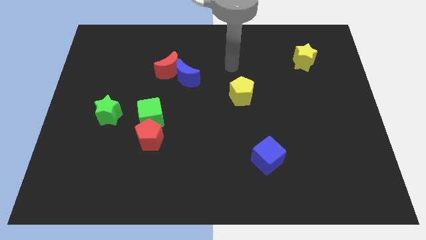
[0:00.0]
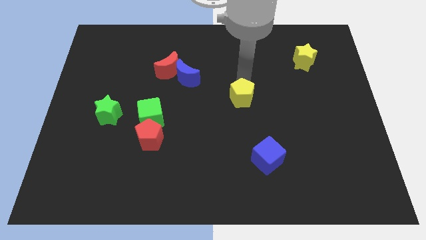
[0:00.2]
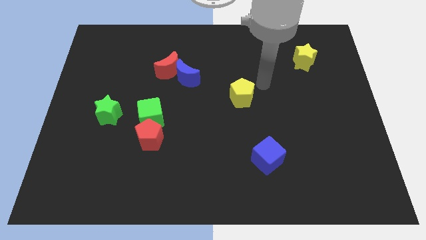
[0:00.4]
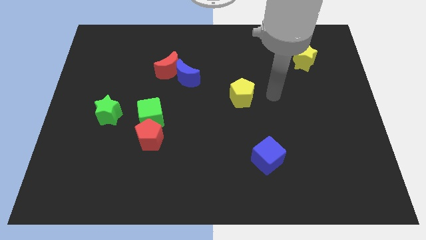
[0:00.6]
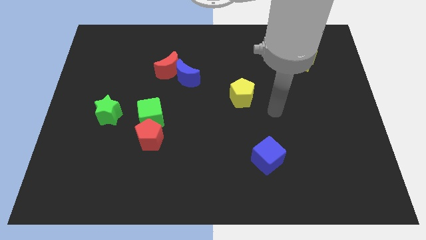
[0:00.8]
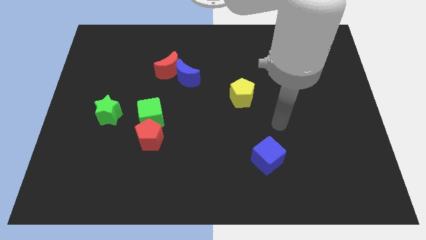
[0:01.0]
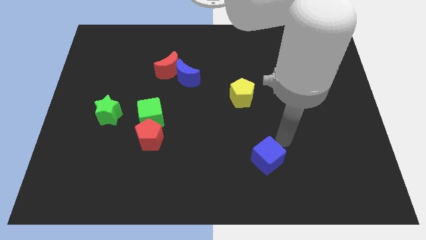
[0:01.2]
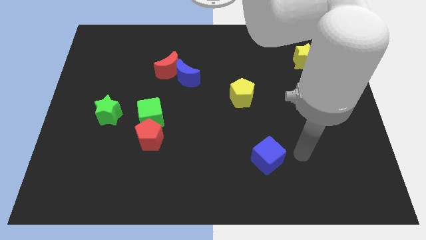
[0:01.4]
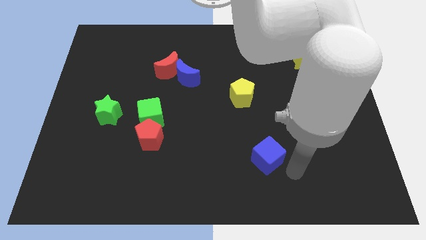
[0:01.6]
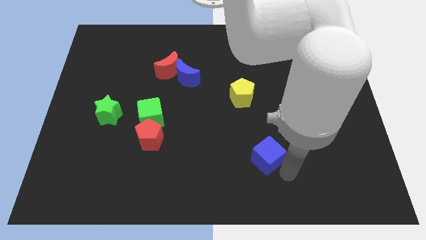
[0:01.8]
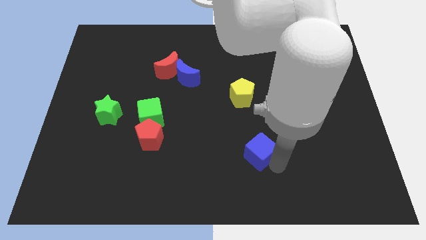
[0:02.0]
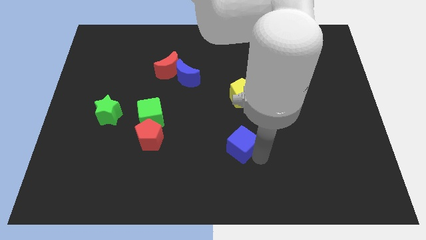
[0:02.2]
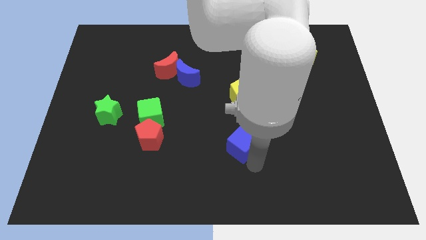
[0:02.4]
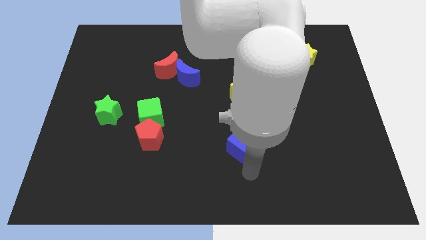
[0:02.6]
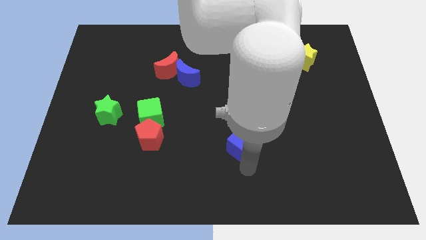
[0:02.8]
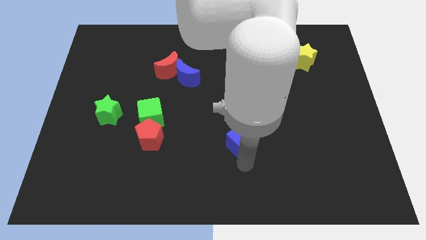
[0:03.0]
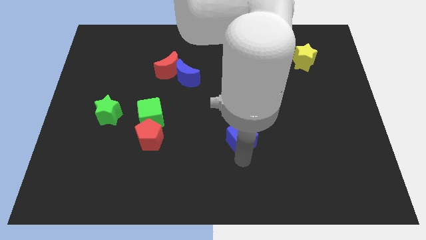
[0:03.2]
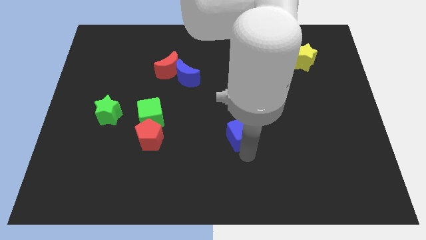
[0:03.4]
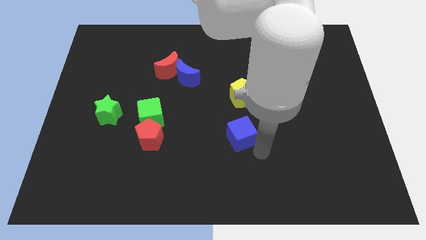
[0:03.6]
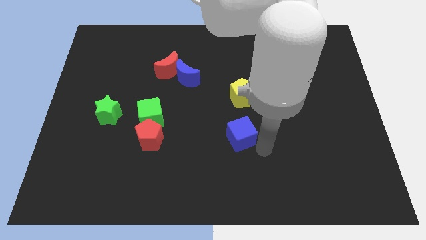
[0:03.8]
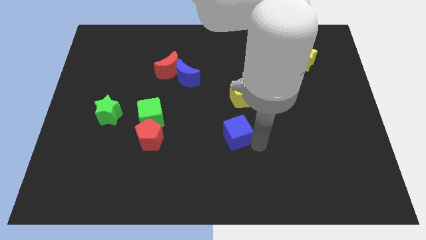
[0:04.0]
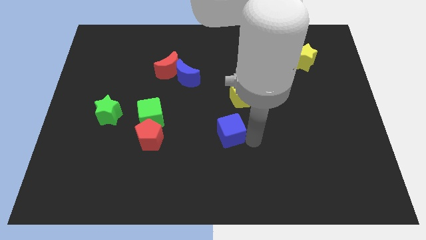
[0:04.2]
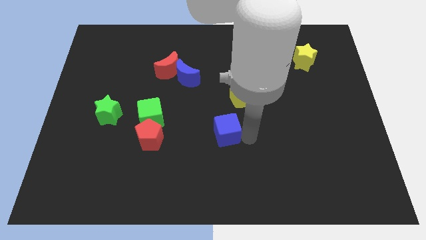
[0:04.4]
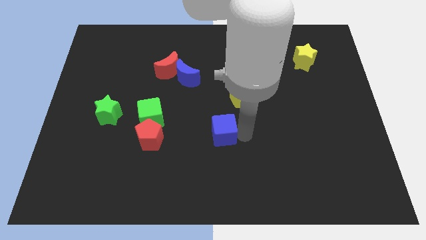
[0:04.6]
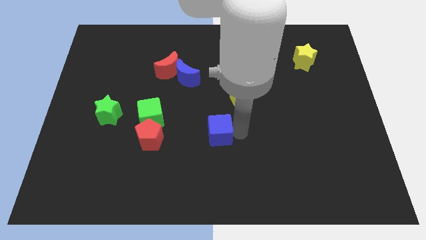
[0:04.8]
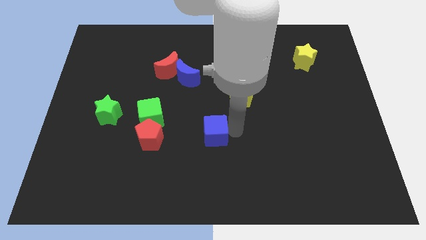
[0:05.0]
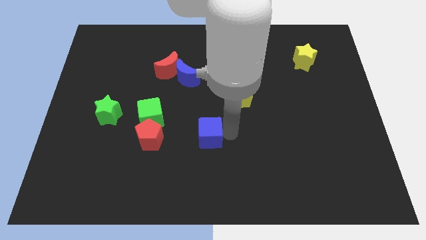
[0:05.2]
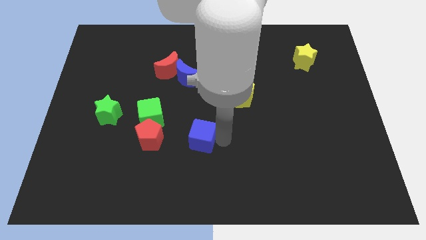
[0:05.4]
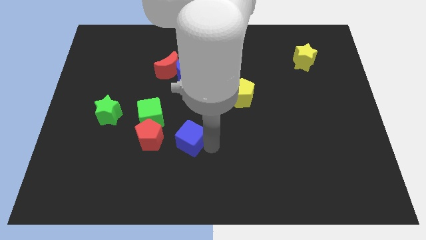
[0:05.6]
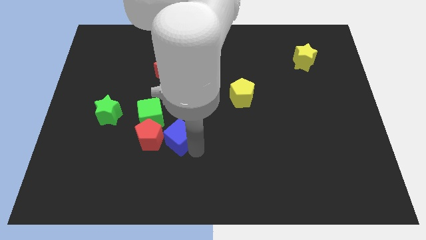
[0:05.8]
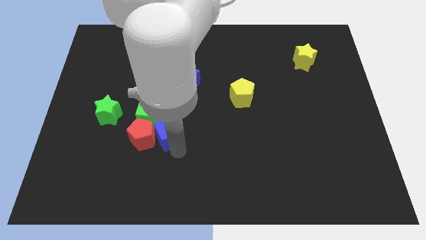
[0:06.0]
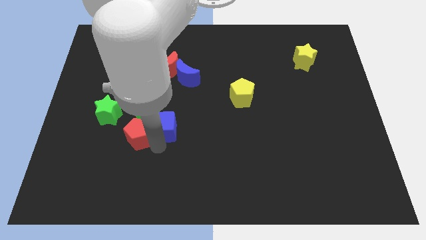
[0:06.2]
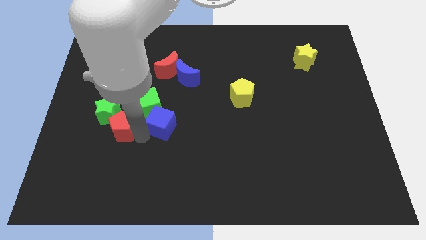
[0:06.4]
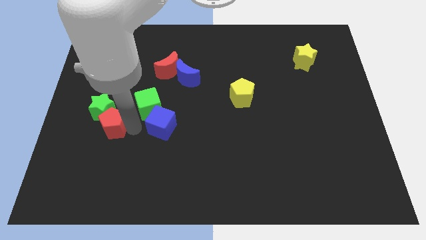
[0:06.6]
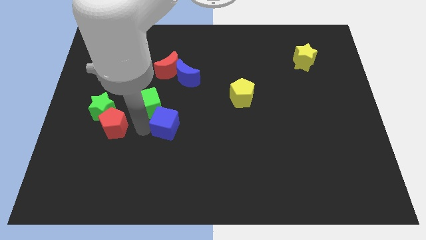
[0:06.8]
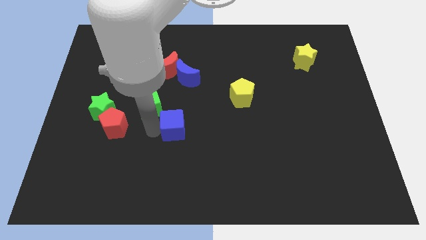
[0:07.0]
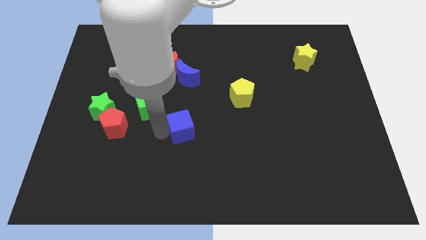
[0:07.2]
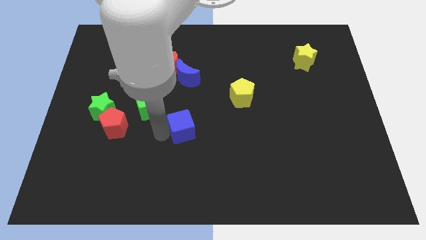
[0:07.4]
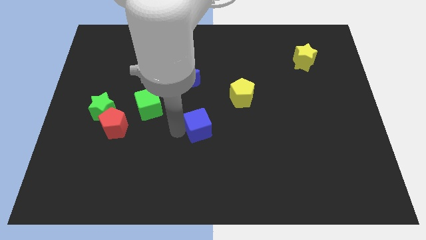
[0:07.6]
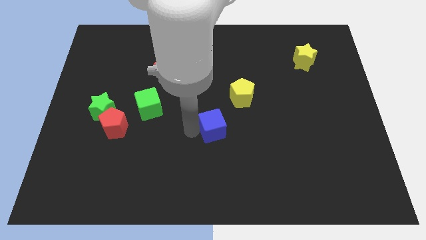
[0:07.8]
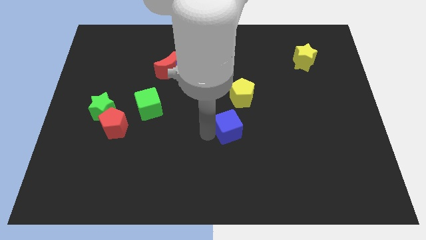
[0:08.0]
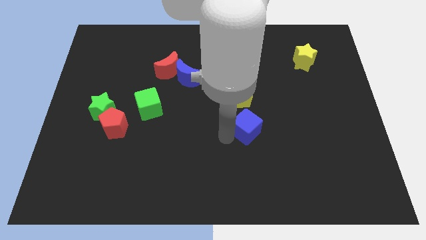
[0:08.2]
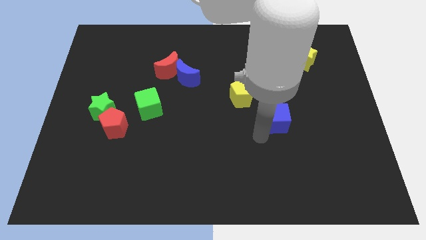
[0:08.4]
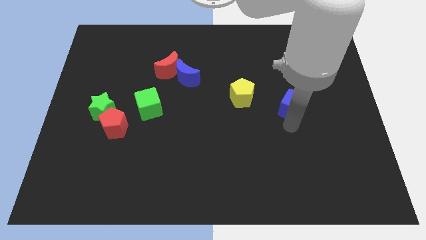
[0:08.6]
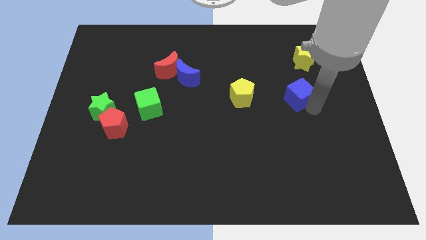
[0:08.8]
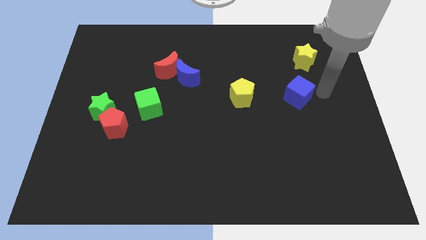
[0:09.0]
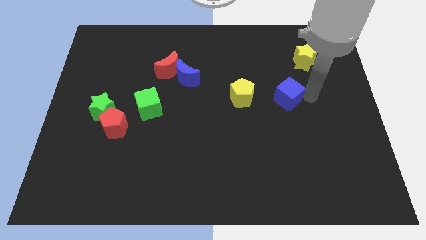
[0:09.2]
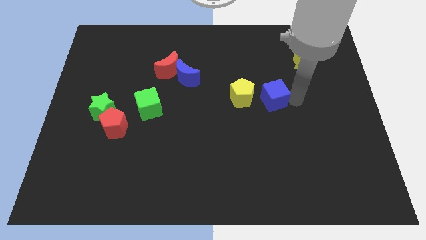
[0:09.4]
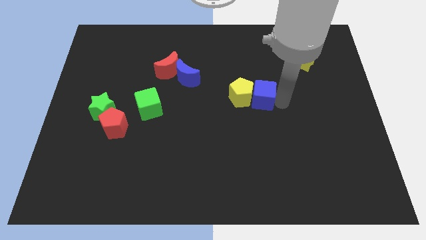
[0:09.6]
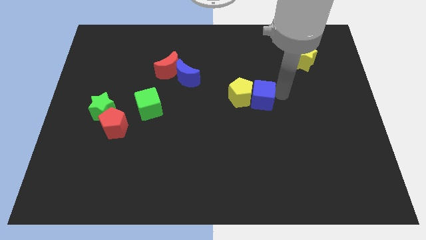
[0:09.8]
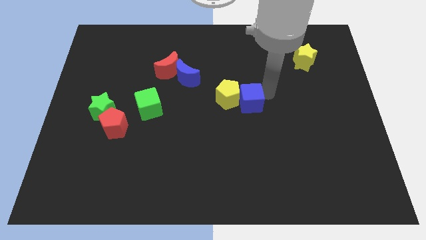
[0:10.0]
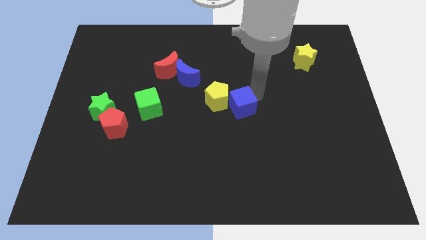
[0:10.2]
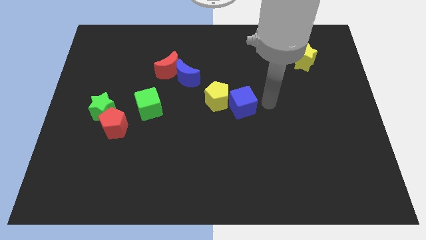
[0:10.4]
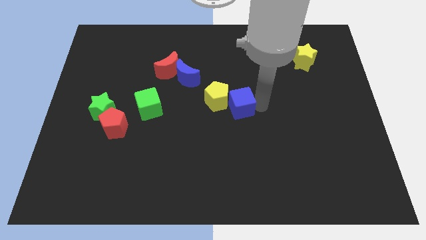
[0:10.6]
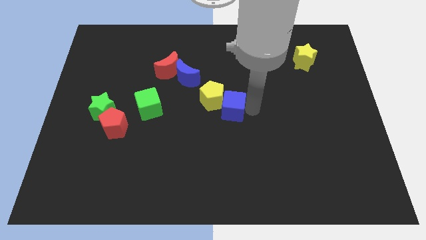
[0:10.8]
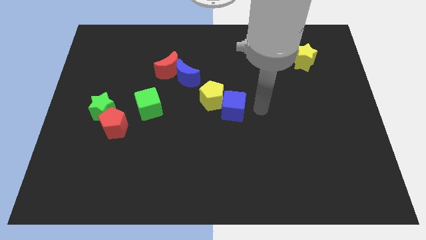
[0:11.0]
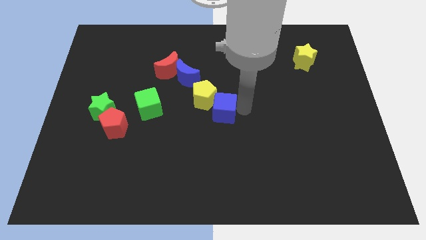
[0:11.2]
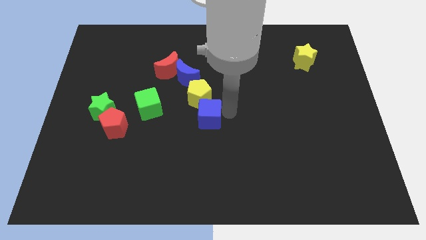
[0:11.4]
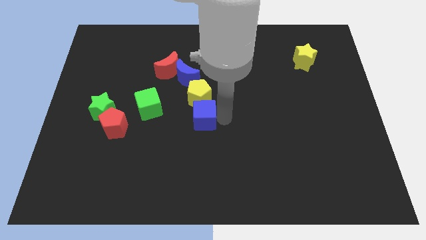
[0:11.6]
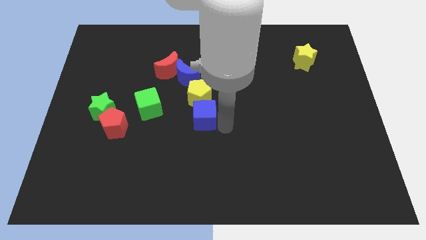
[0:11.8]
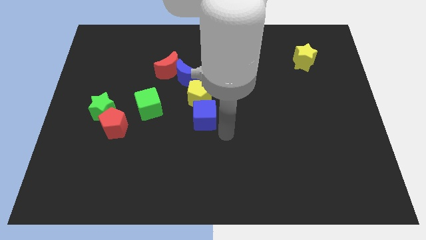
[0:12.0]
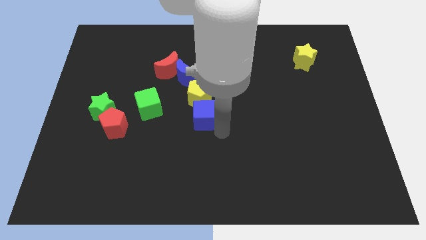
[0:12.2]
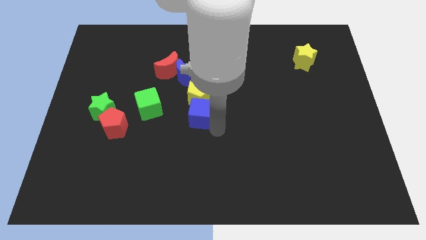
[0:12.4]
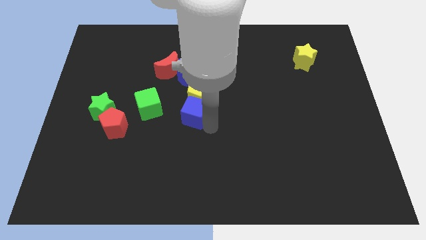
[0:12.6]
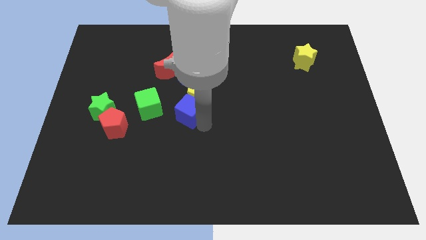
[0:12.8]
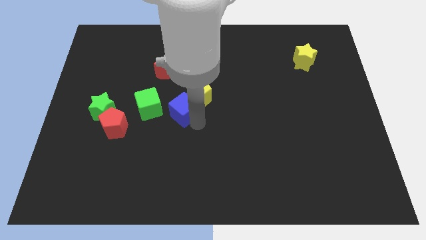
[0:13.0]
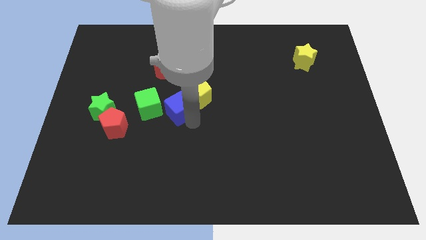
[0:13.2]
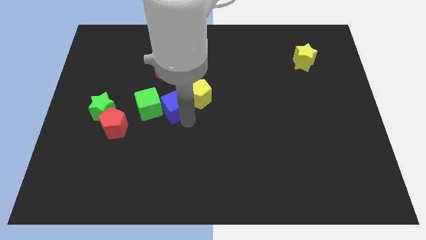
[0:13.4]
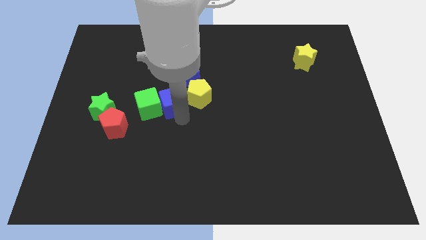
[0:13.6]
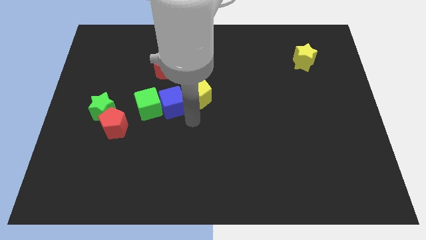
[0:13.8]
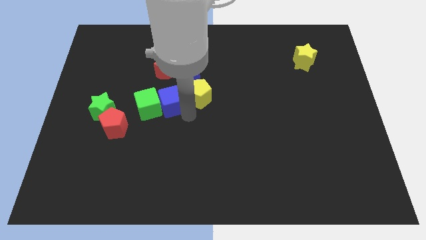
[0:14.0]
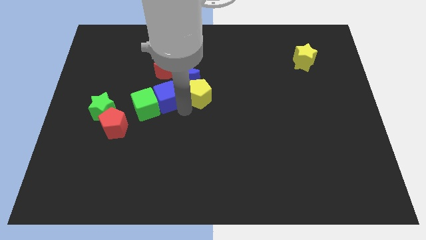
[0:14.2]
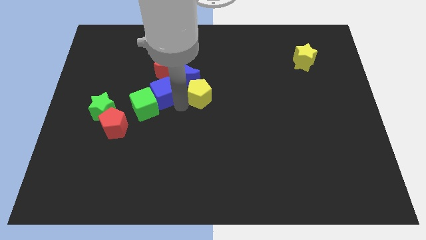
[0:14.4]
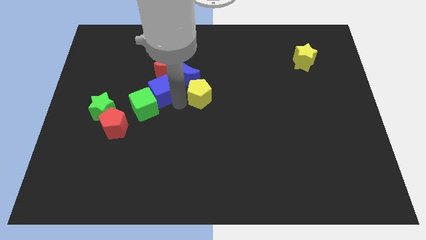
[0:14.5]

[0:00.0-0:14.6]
push the blue cube to the bottom left side of the red moon
